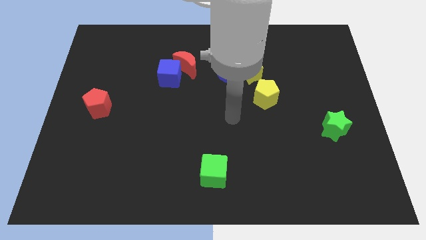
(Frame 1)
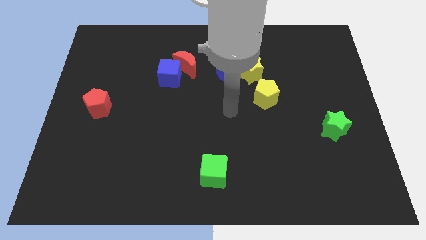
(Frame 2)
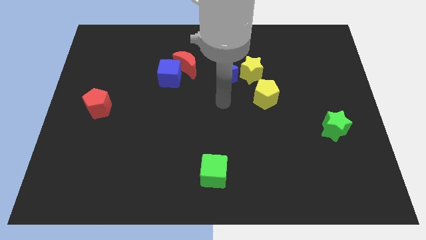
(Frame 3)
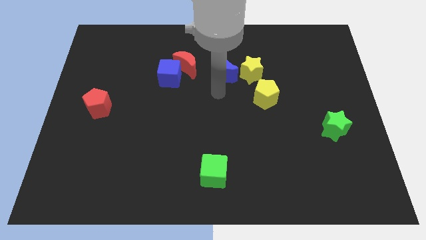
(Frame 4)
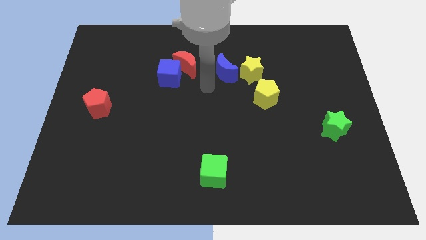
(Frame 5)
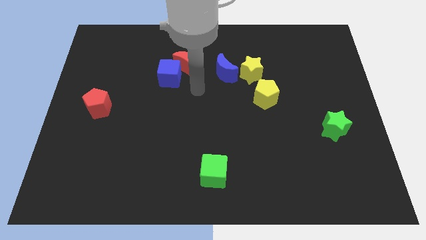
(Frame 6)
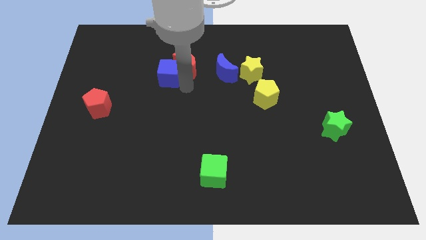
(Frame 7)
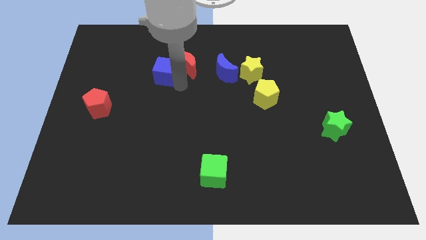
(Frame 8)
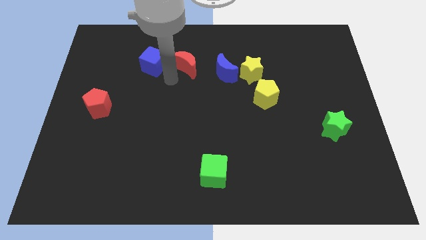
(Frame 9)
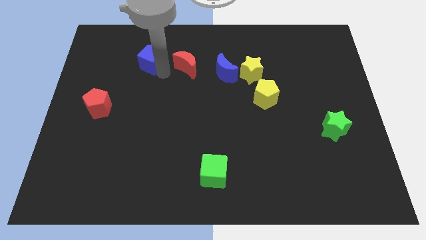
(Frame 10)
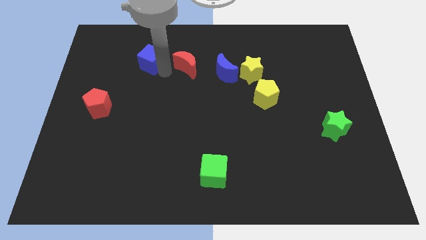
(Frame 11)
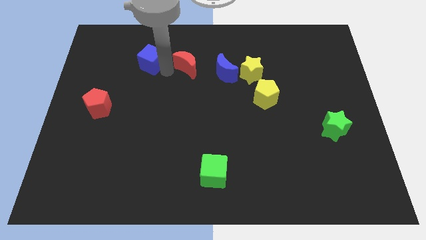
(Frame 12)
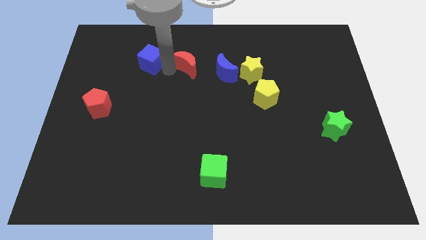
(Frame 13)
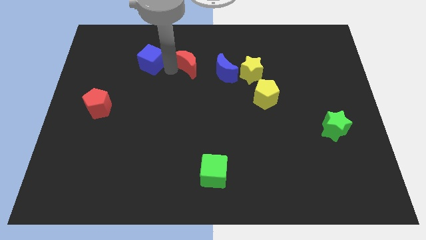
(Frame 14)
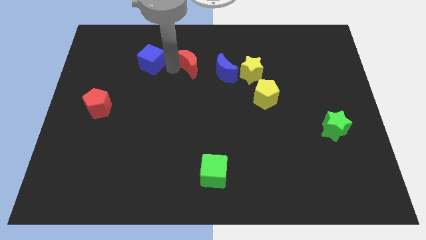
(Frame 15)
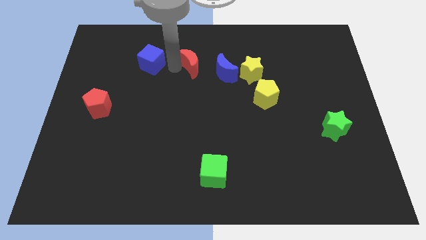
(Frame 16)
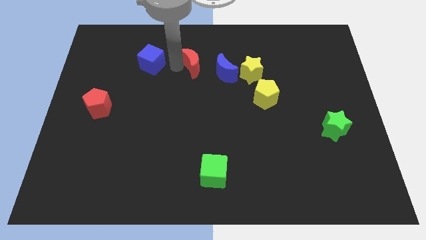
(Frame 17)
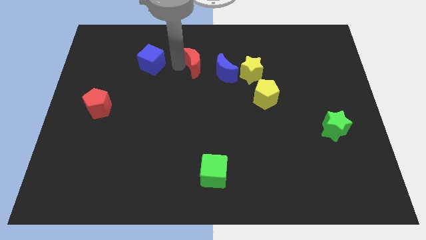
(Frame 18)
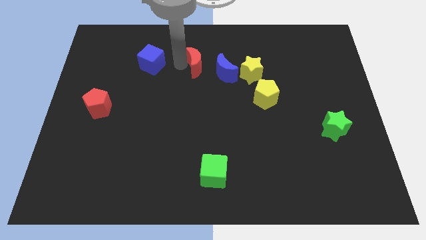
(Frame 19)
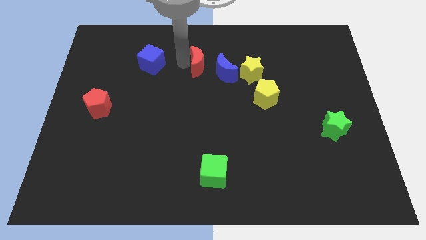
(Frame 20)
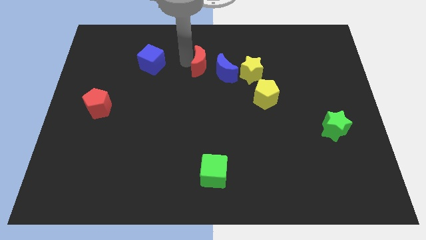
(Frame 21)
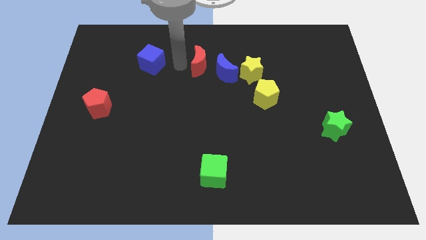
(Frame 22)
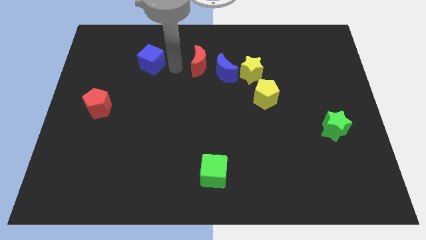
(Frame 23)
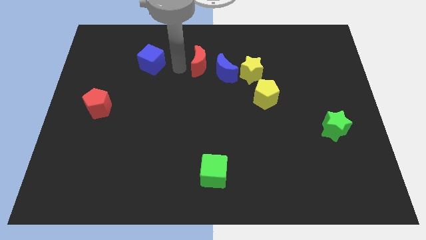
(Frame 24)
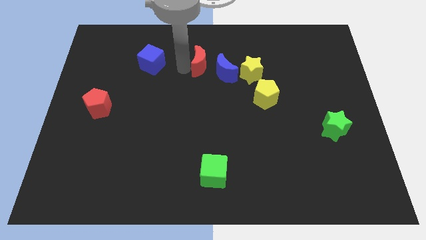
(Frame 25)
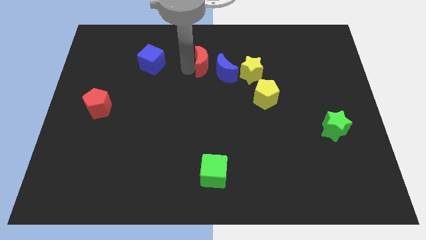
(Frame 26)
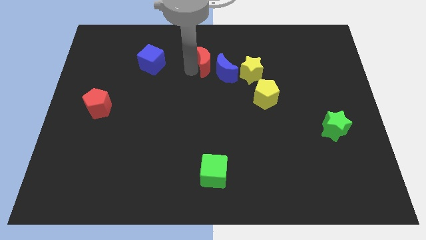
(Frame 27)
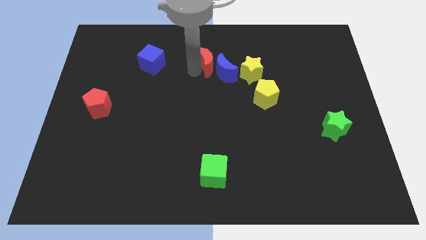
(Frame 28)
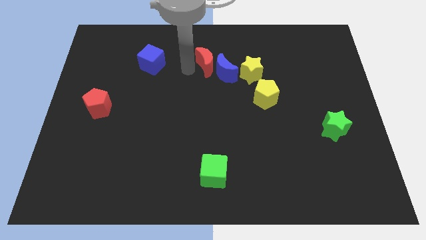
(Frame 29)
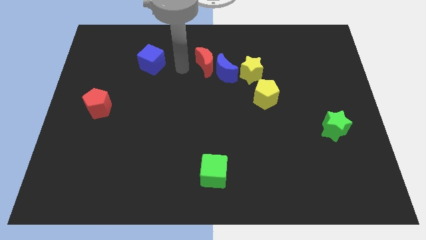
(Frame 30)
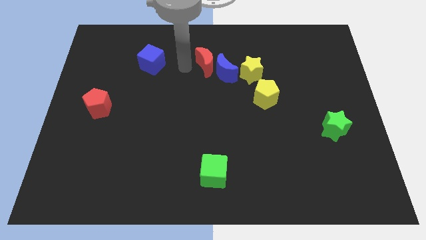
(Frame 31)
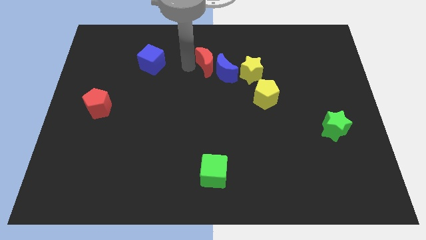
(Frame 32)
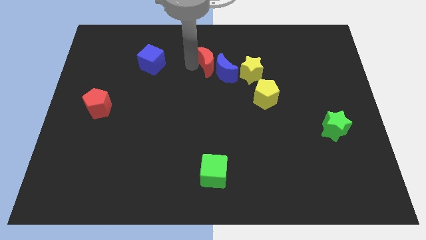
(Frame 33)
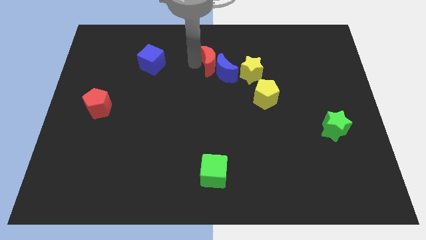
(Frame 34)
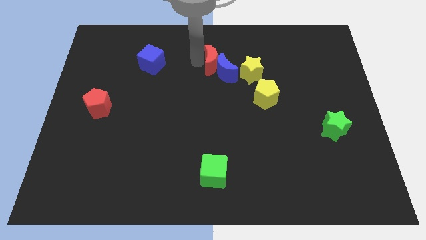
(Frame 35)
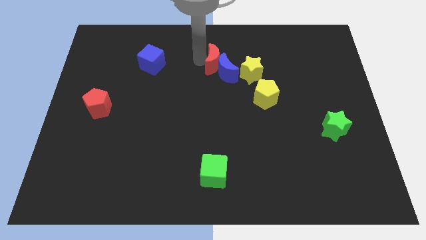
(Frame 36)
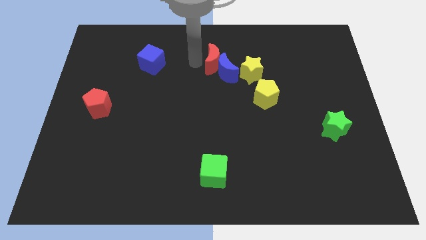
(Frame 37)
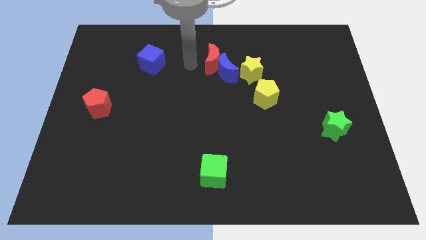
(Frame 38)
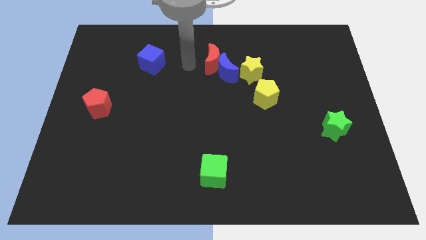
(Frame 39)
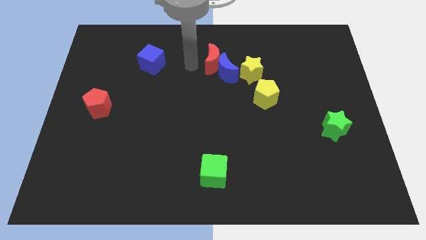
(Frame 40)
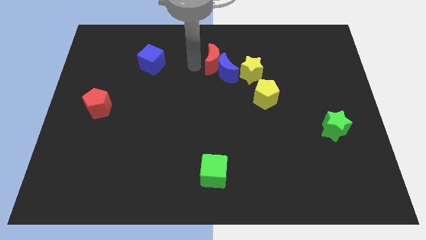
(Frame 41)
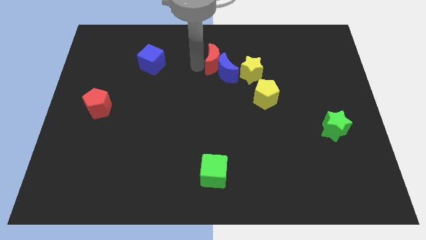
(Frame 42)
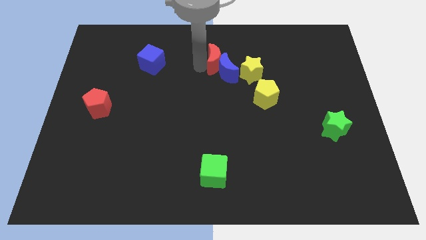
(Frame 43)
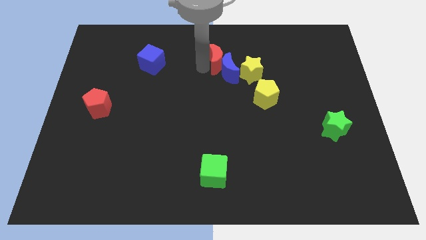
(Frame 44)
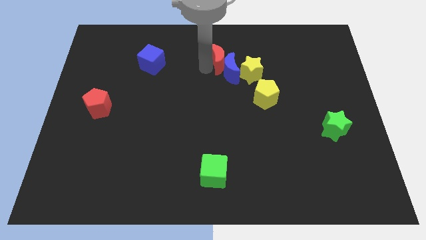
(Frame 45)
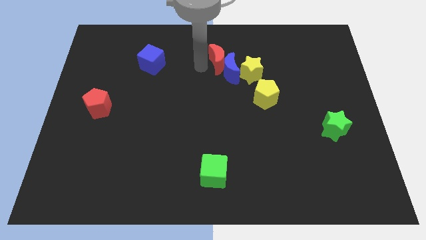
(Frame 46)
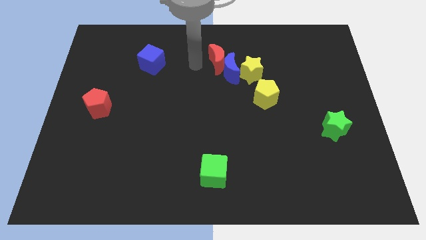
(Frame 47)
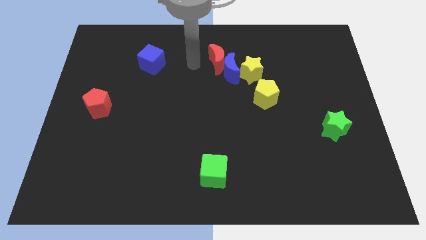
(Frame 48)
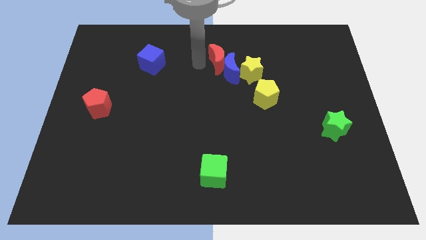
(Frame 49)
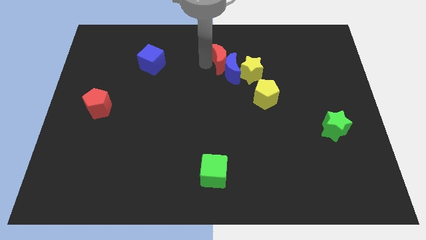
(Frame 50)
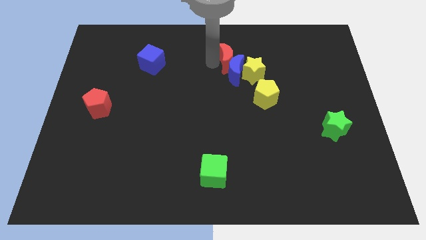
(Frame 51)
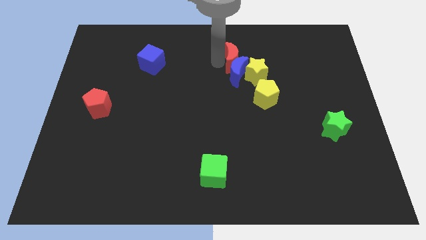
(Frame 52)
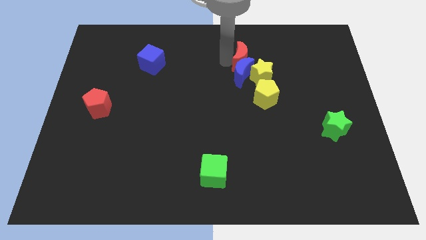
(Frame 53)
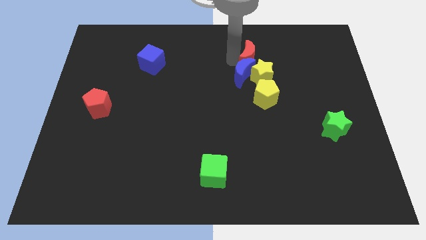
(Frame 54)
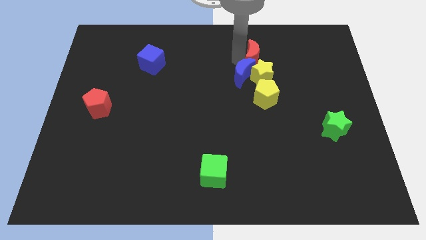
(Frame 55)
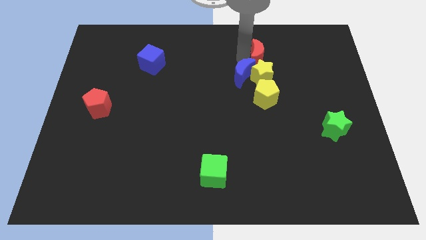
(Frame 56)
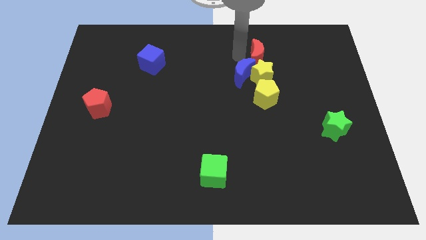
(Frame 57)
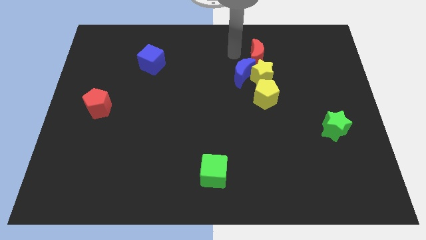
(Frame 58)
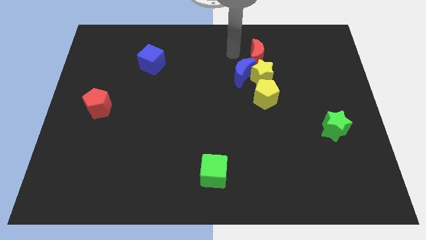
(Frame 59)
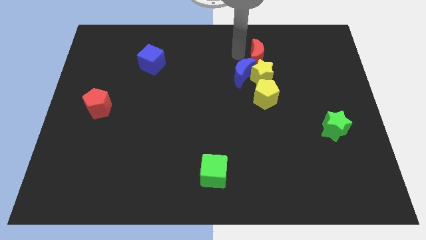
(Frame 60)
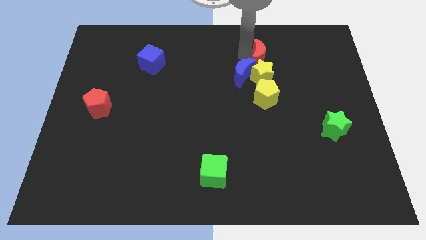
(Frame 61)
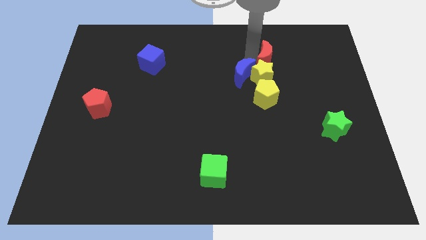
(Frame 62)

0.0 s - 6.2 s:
push the red moon right

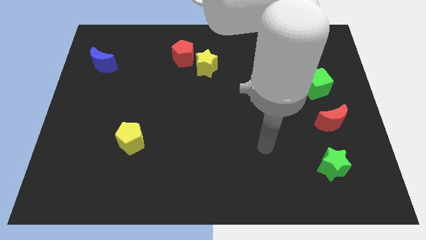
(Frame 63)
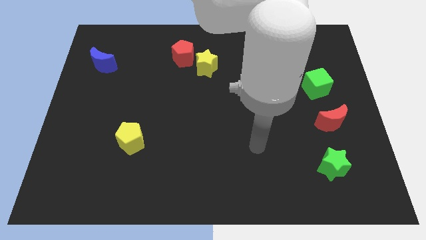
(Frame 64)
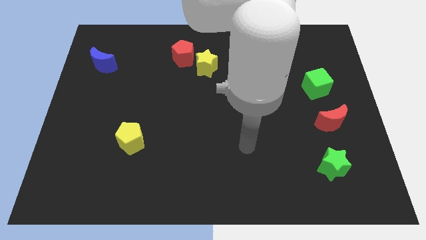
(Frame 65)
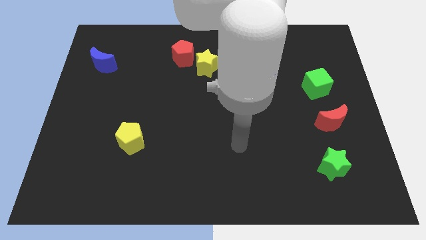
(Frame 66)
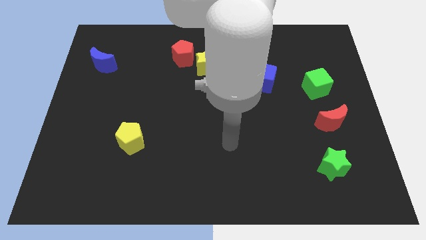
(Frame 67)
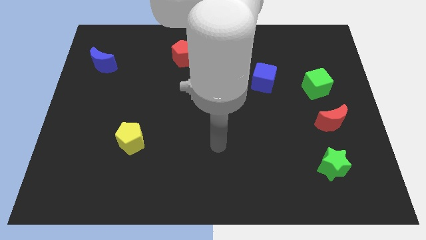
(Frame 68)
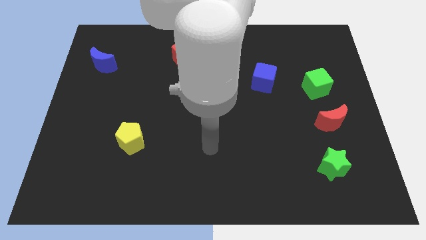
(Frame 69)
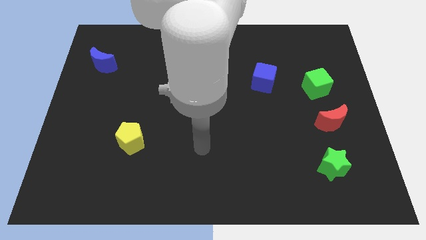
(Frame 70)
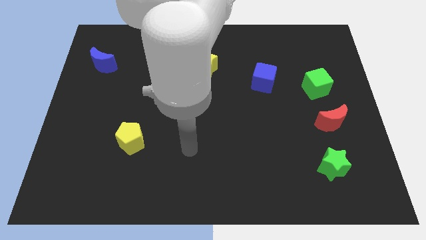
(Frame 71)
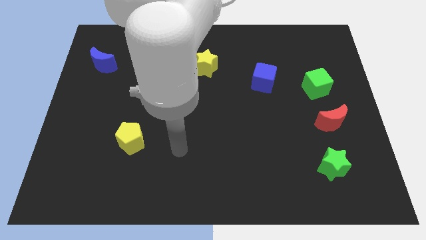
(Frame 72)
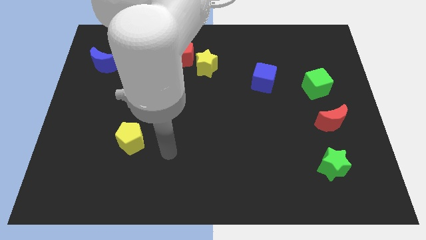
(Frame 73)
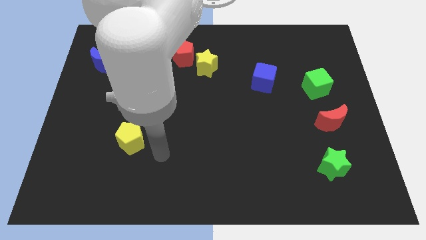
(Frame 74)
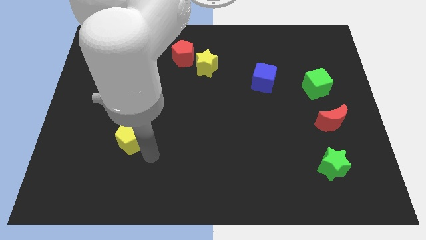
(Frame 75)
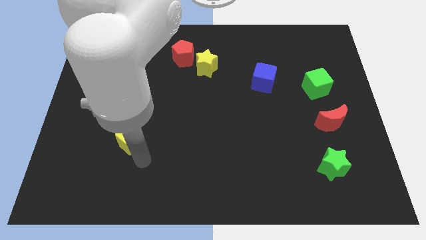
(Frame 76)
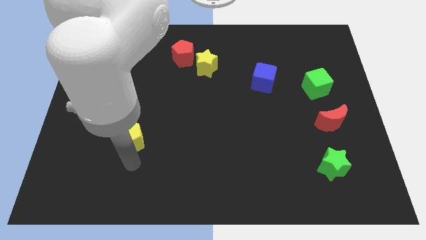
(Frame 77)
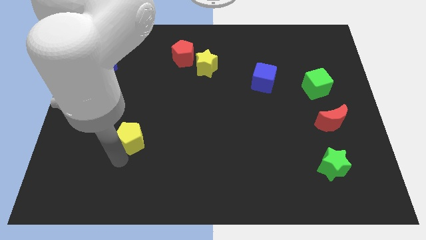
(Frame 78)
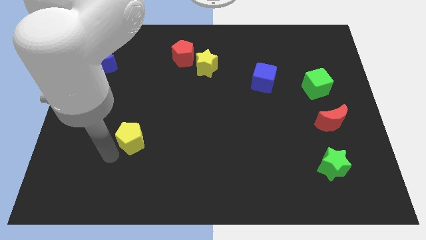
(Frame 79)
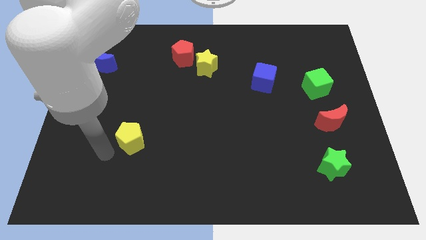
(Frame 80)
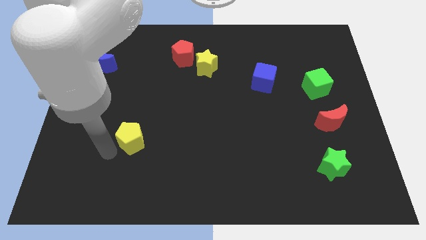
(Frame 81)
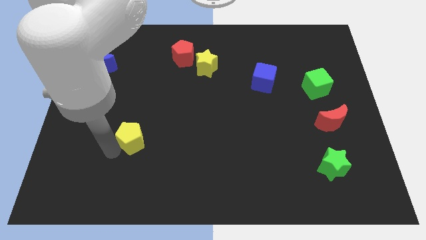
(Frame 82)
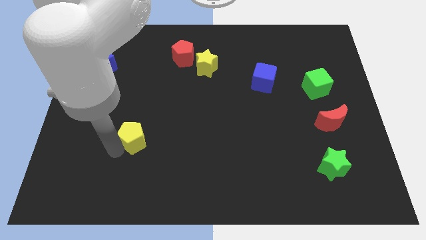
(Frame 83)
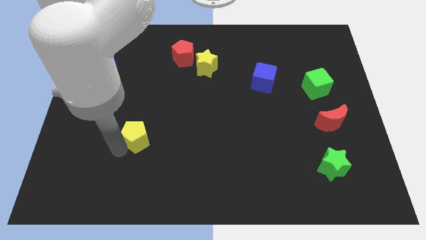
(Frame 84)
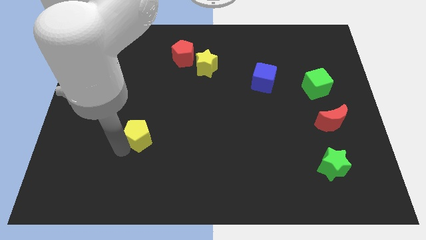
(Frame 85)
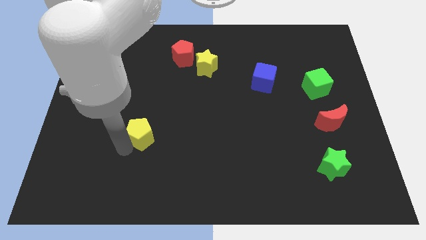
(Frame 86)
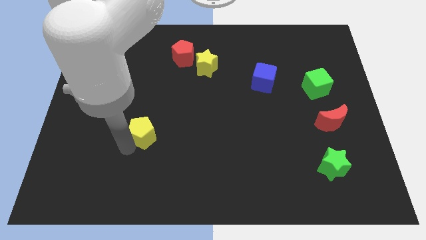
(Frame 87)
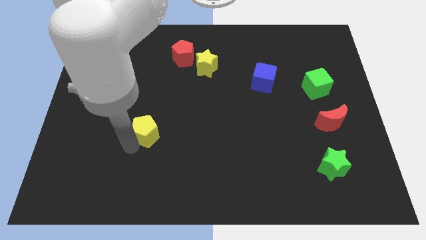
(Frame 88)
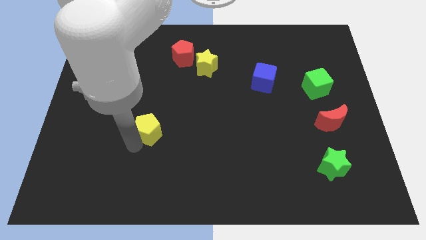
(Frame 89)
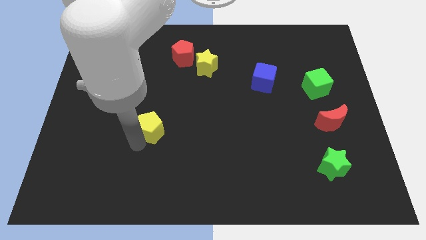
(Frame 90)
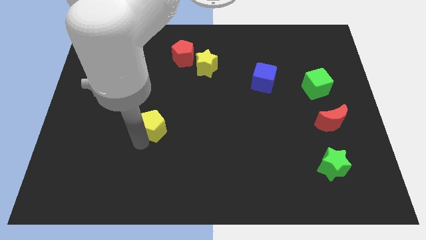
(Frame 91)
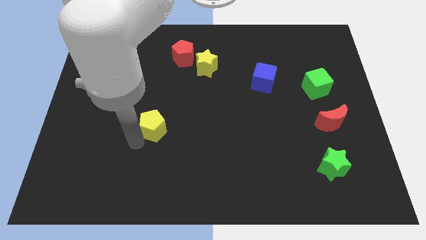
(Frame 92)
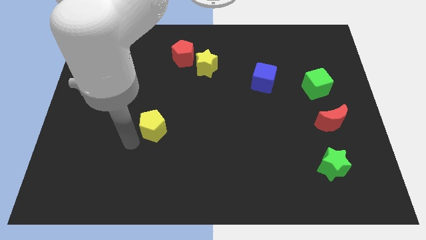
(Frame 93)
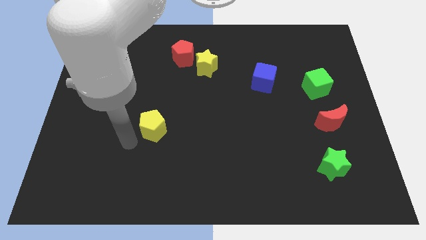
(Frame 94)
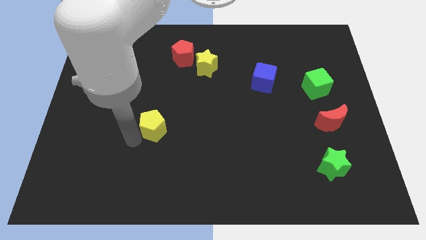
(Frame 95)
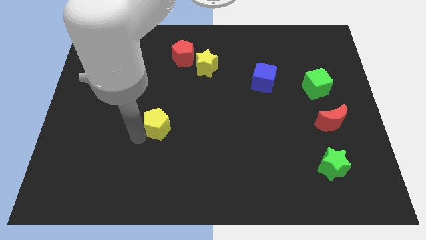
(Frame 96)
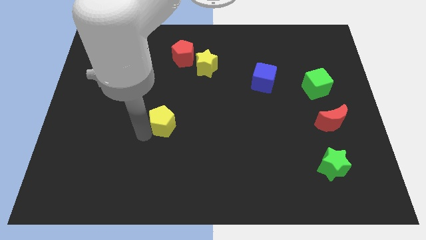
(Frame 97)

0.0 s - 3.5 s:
push the yellow pentagon upwards and to the right somewhat
